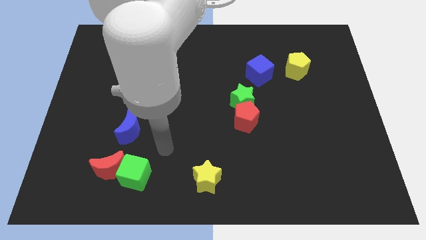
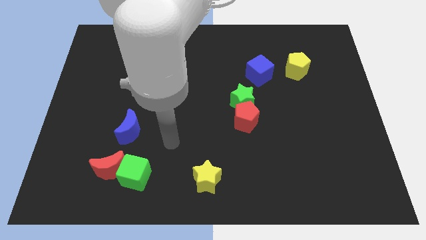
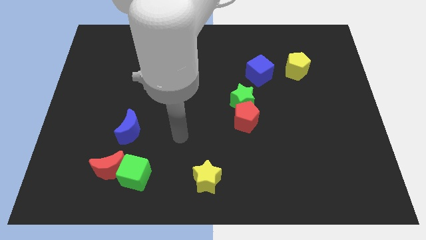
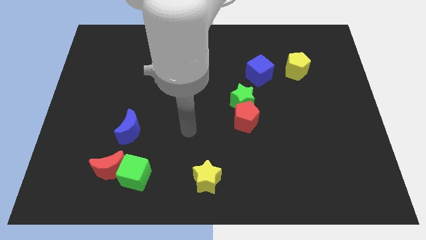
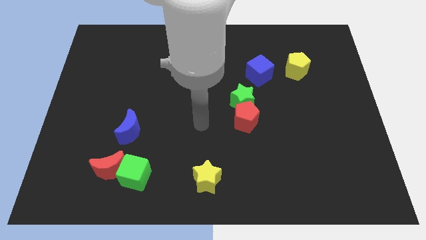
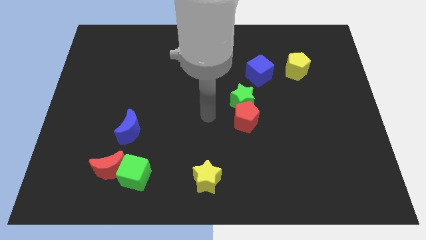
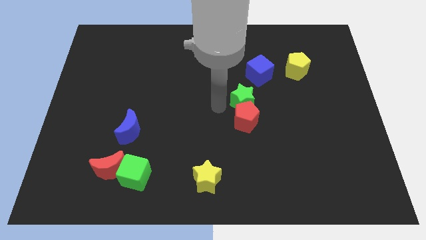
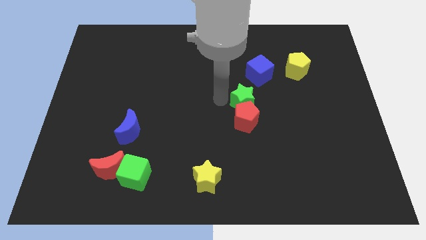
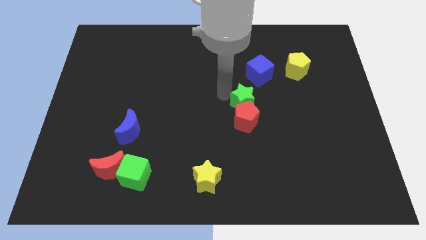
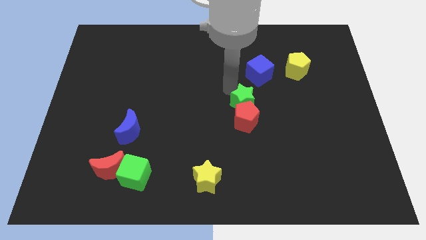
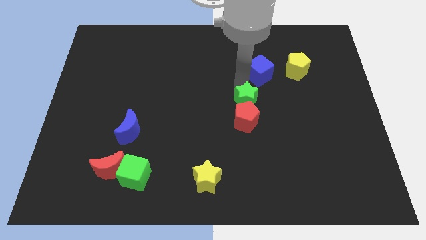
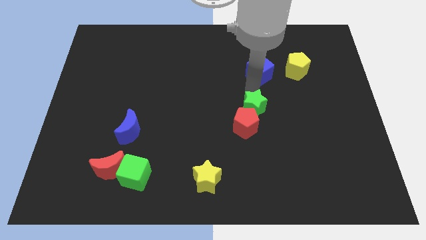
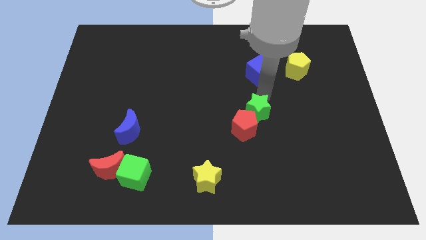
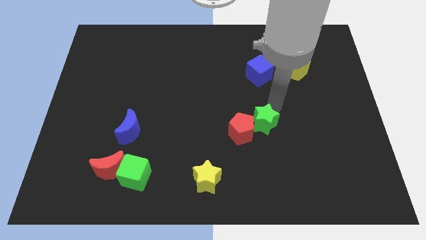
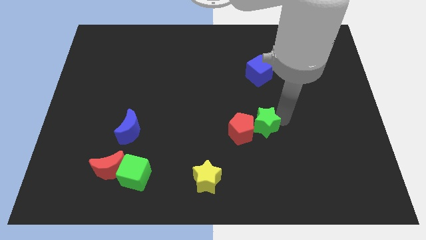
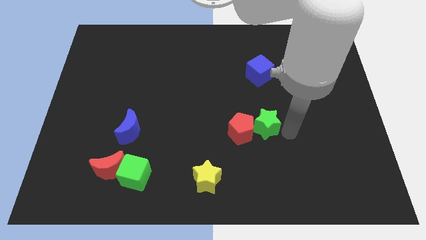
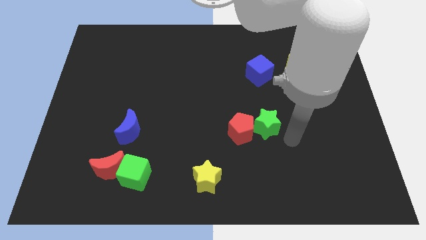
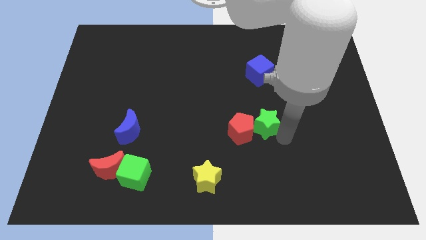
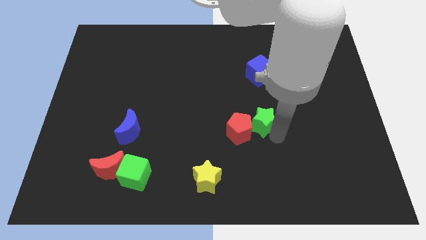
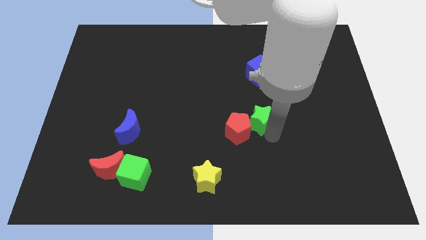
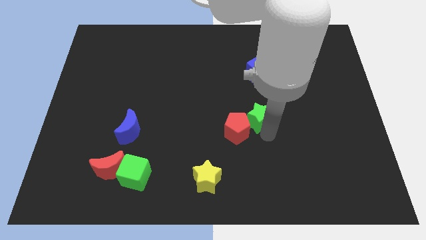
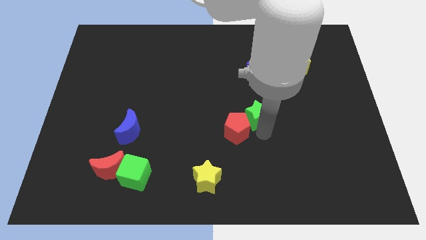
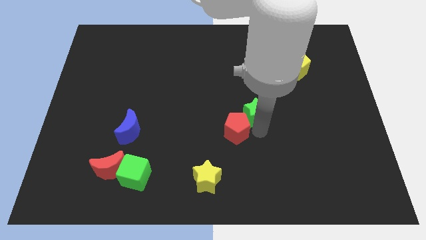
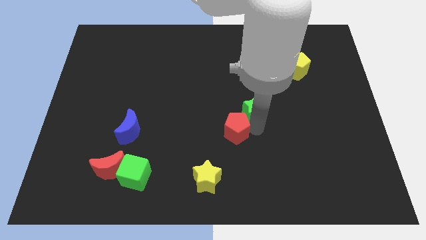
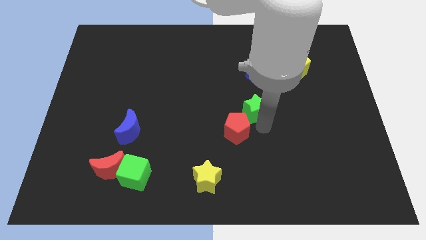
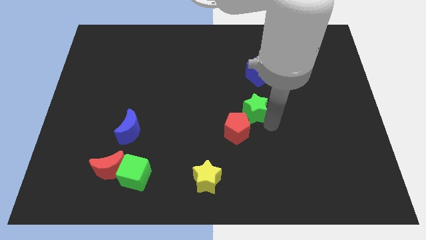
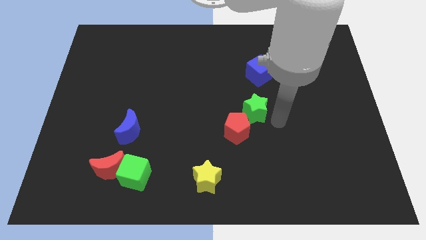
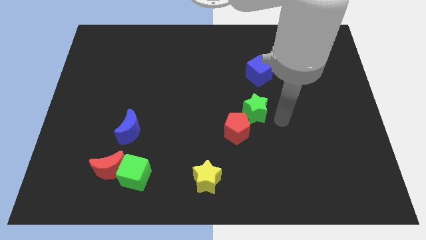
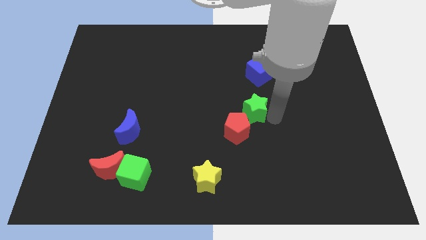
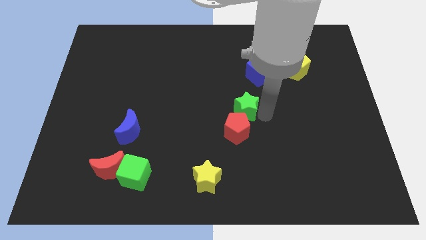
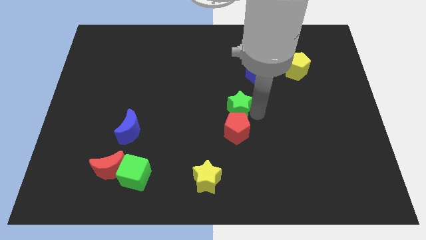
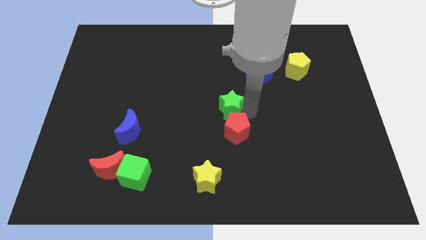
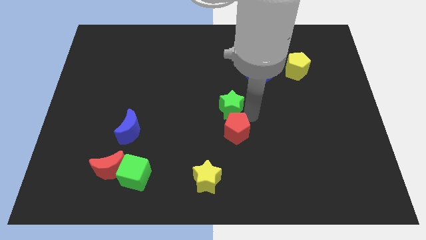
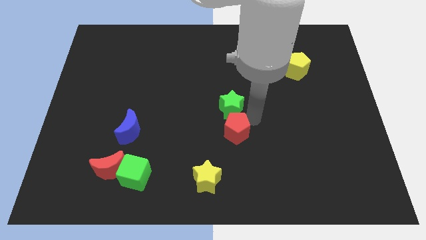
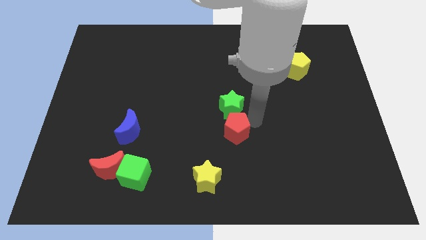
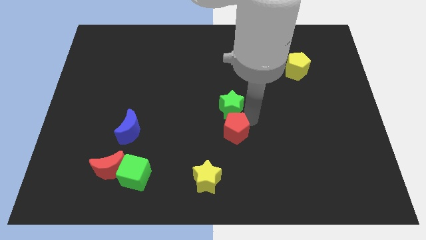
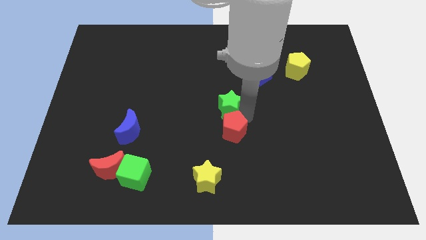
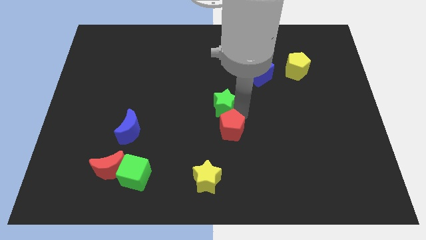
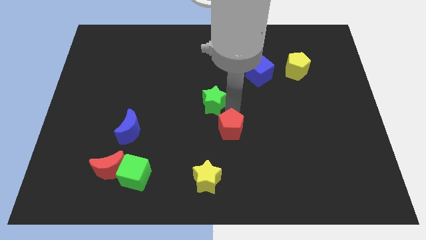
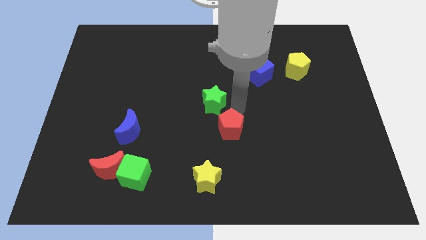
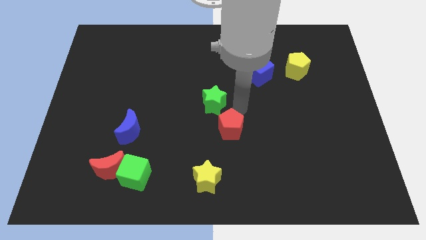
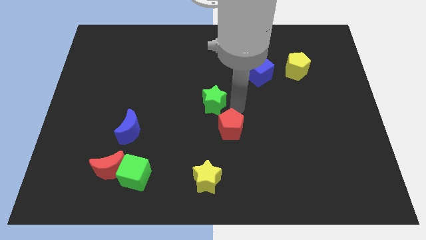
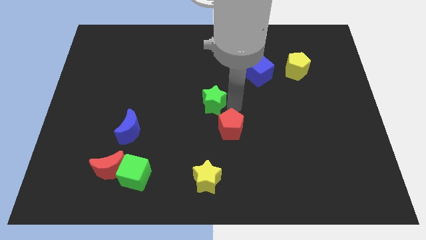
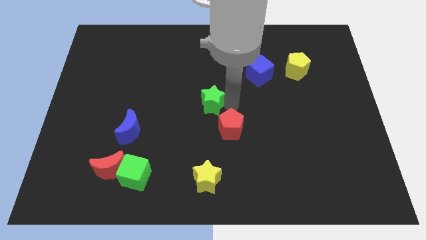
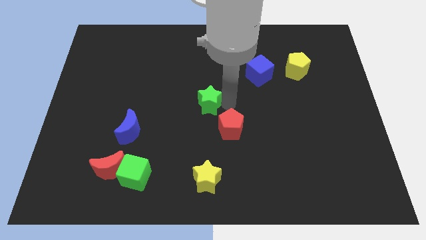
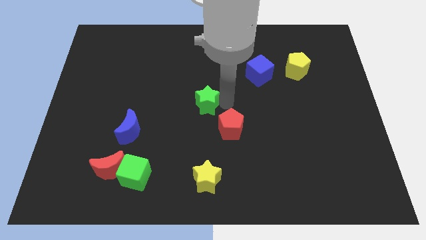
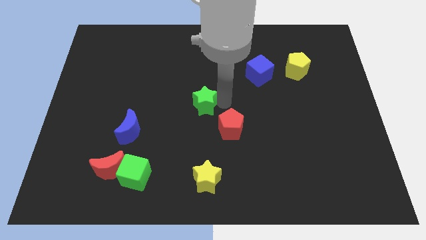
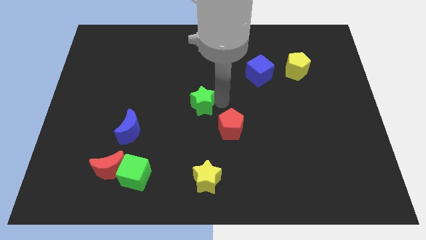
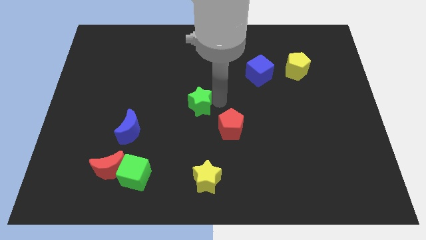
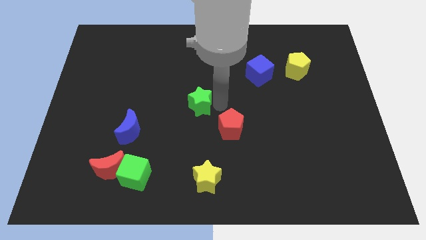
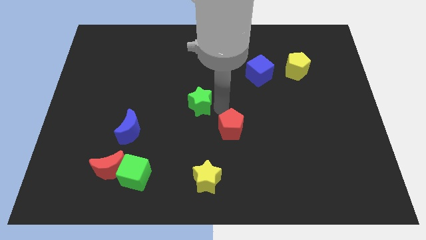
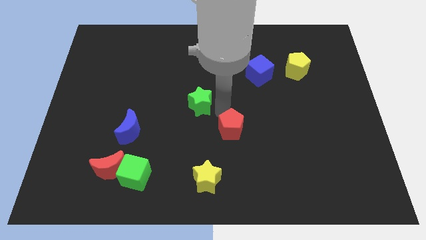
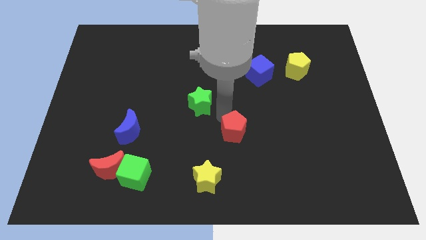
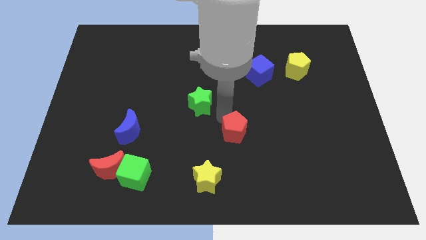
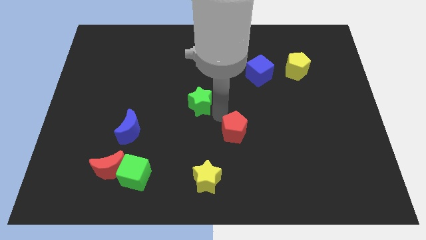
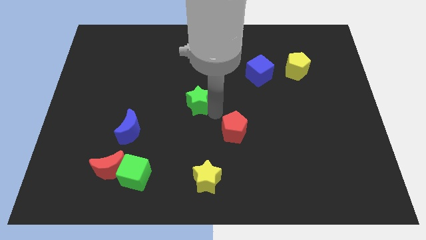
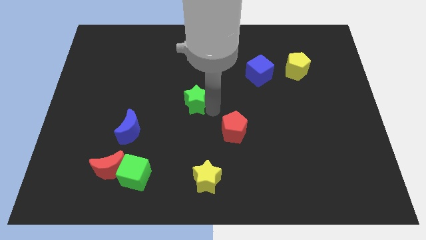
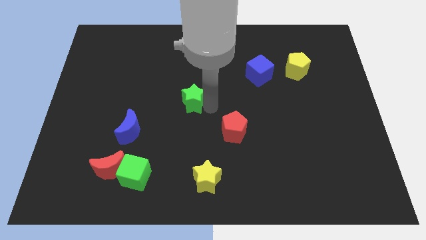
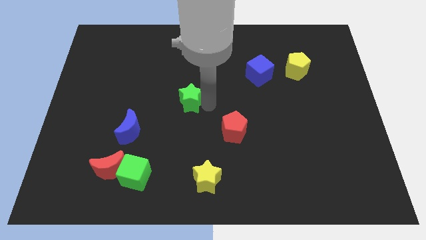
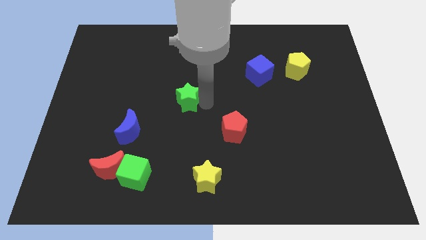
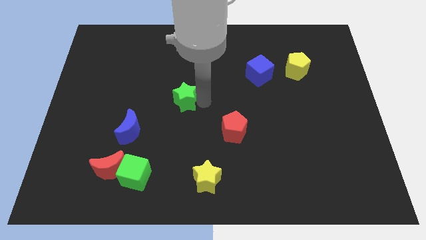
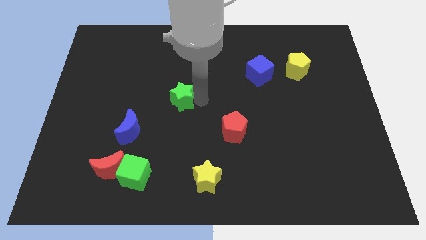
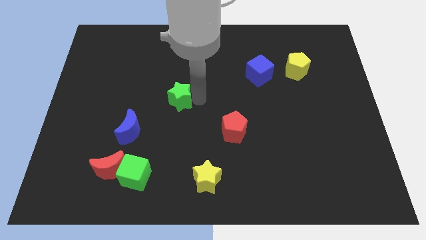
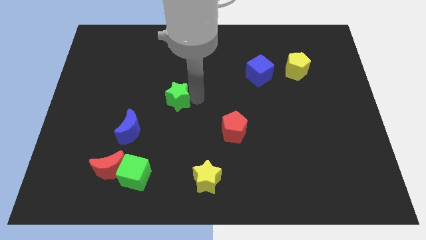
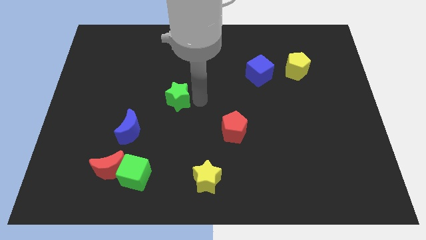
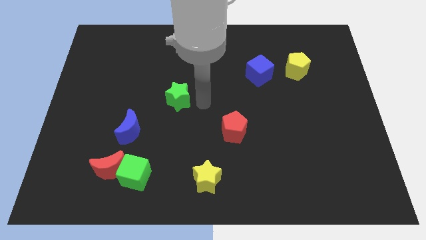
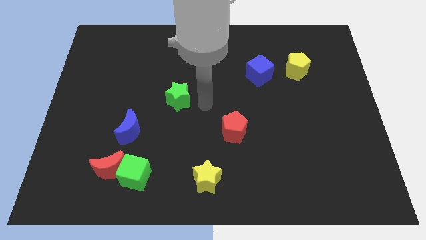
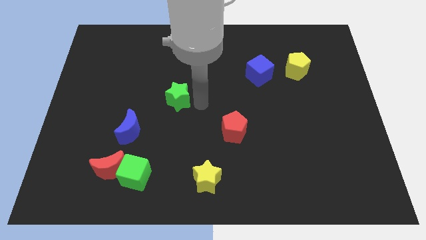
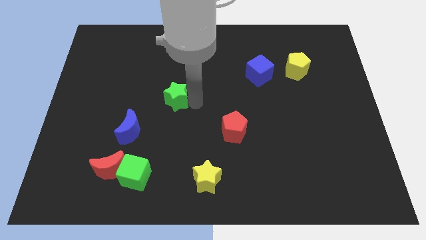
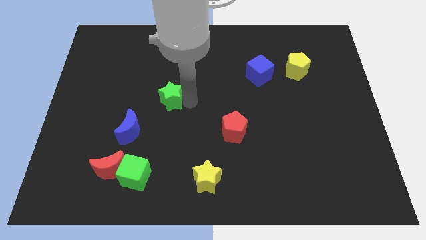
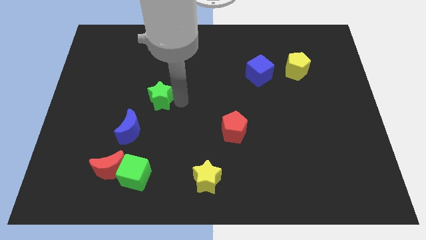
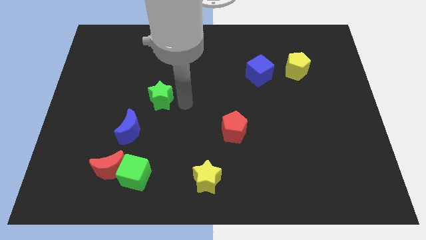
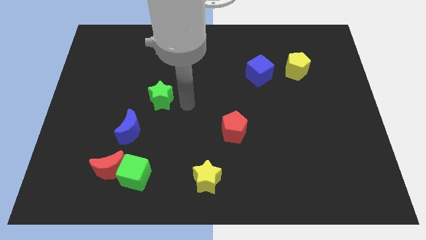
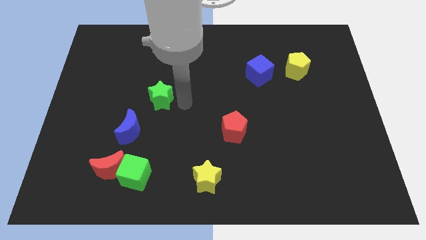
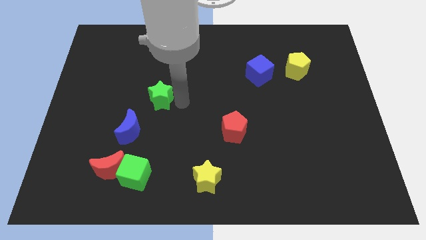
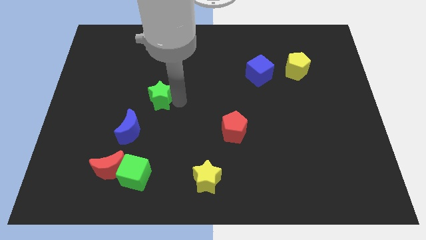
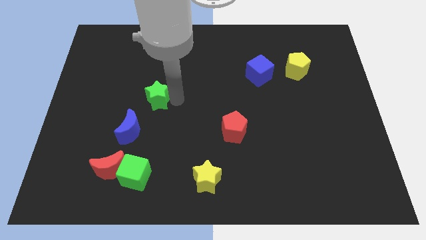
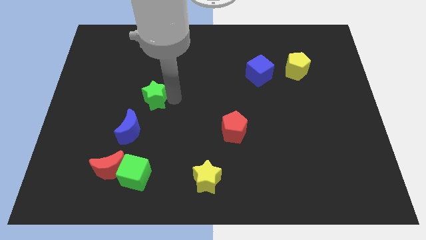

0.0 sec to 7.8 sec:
slide the green star above the blue moon
